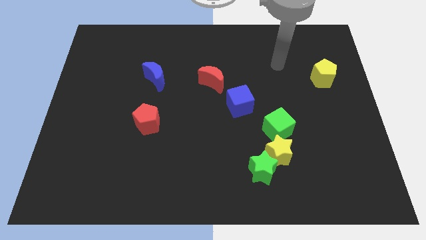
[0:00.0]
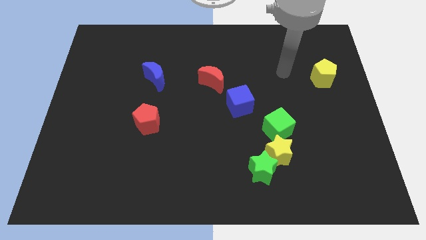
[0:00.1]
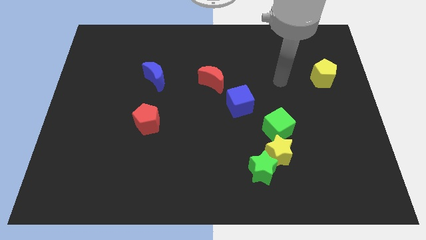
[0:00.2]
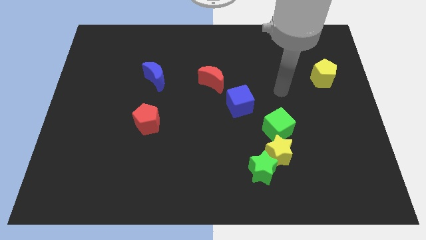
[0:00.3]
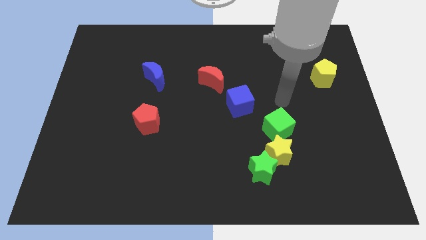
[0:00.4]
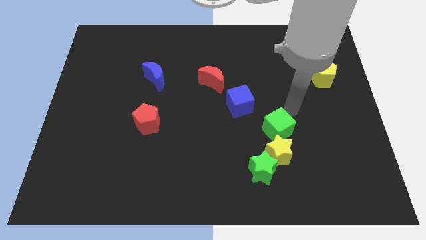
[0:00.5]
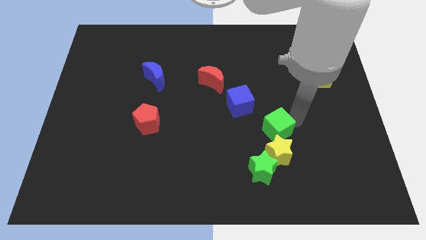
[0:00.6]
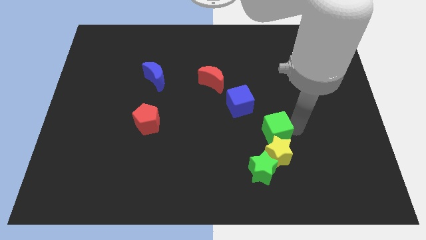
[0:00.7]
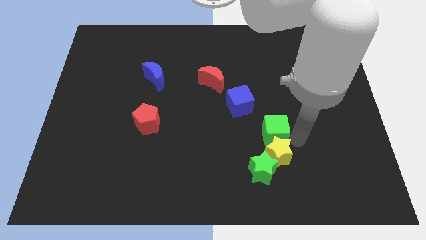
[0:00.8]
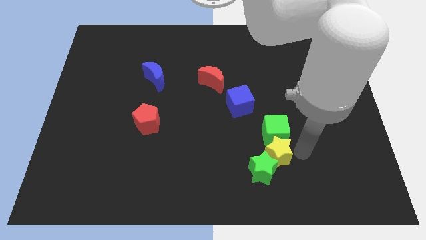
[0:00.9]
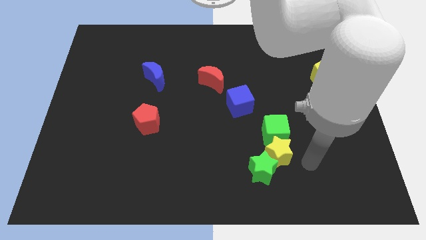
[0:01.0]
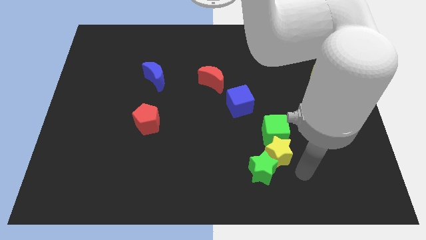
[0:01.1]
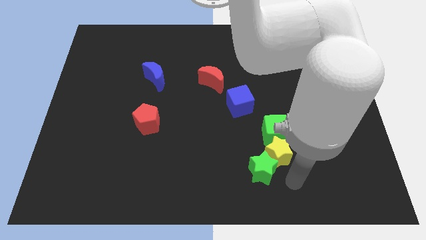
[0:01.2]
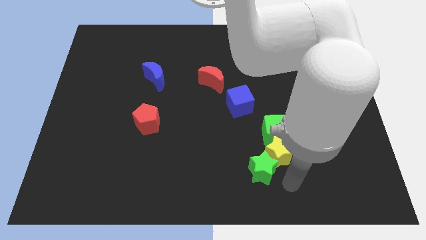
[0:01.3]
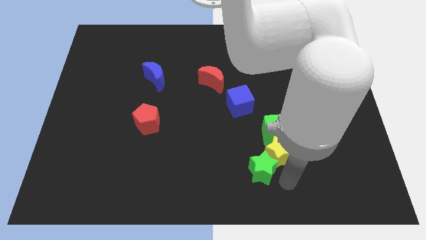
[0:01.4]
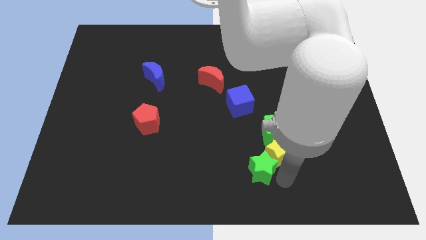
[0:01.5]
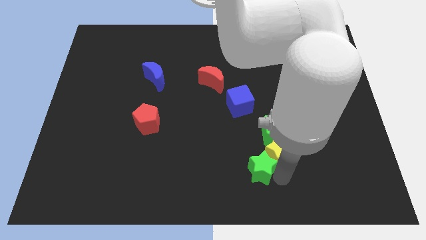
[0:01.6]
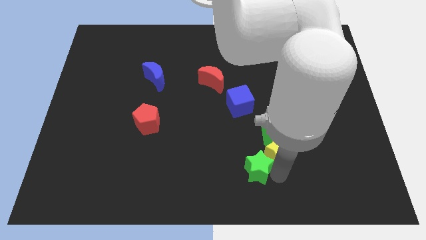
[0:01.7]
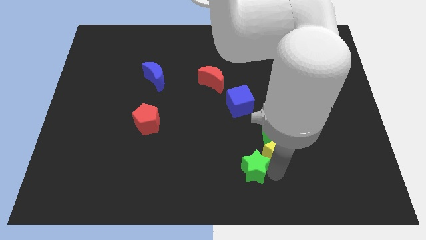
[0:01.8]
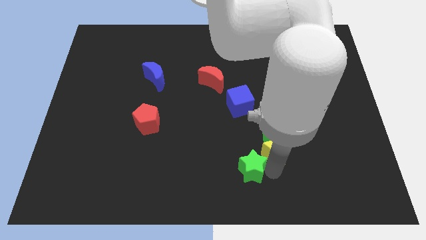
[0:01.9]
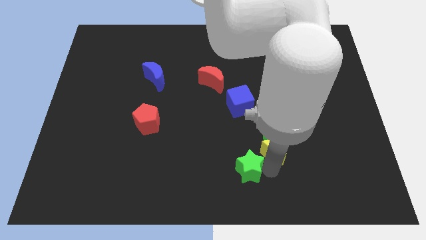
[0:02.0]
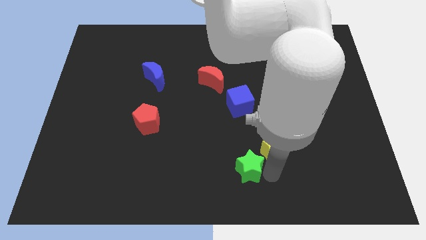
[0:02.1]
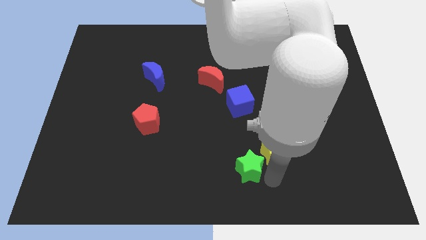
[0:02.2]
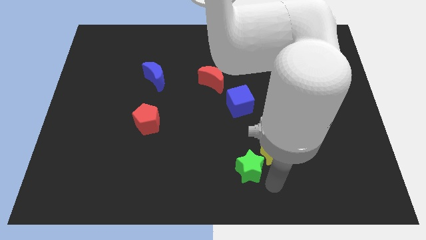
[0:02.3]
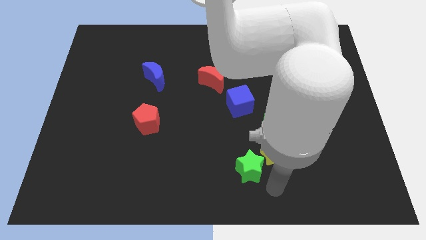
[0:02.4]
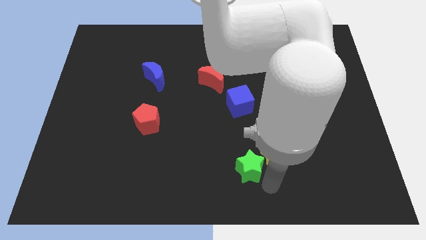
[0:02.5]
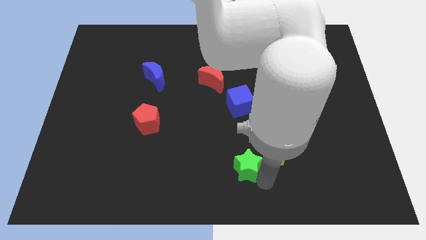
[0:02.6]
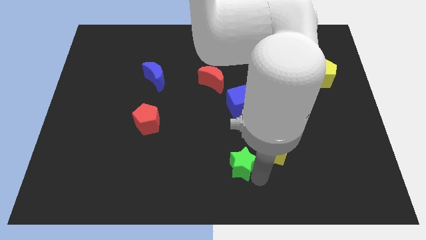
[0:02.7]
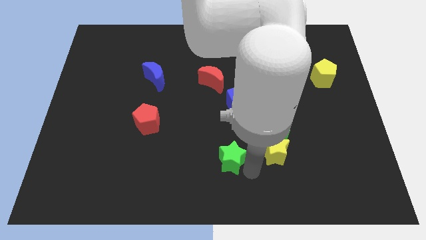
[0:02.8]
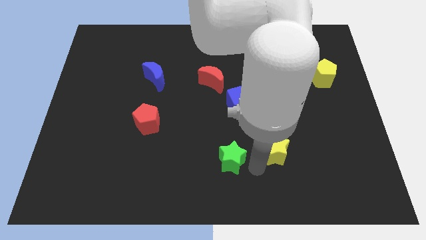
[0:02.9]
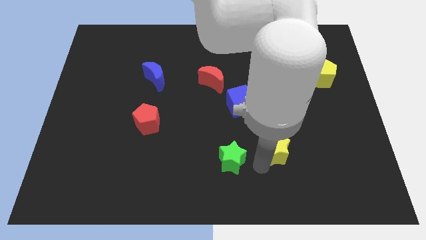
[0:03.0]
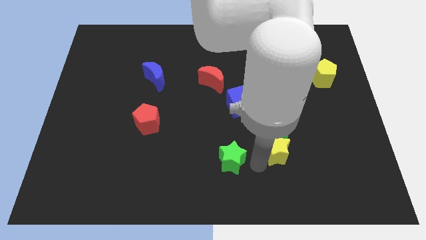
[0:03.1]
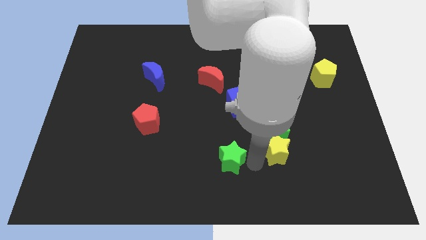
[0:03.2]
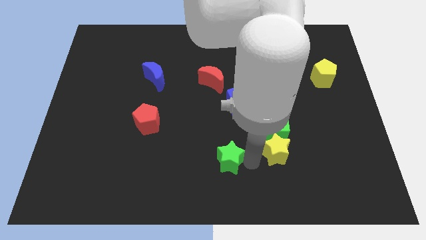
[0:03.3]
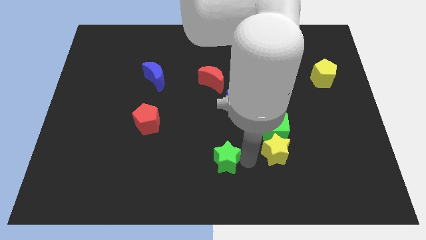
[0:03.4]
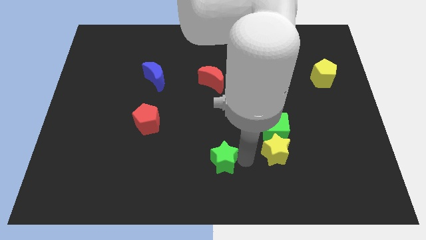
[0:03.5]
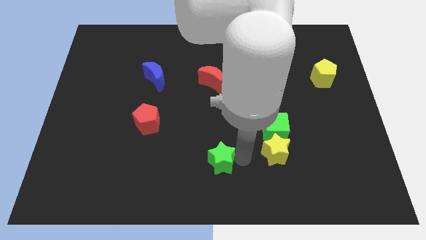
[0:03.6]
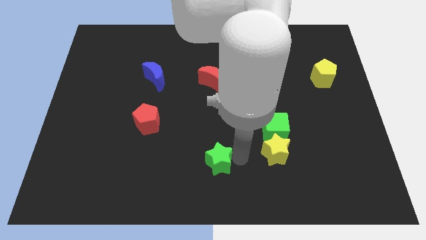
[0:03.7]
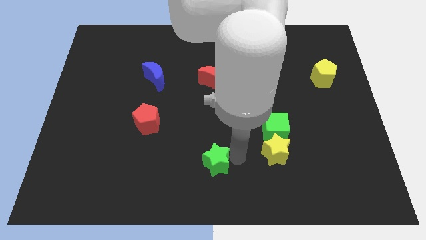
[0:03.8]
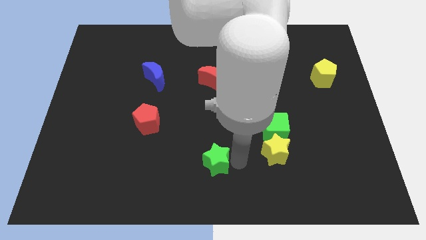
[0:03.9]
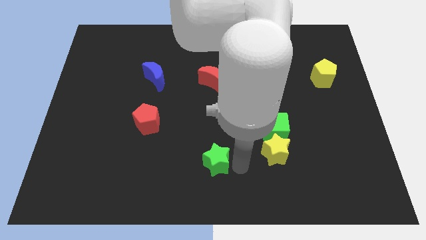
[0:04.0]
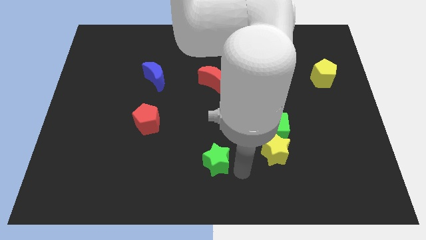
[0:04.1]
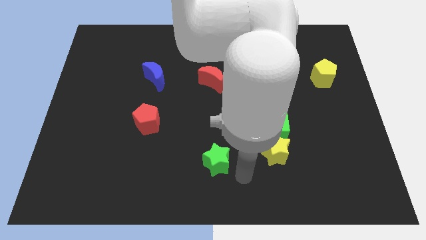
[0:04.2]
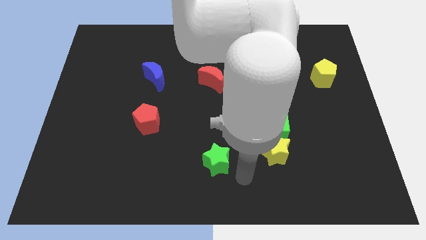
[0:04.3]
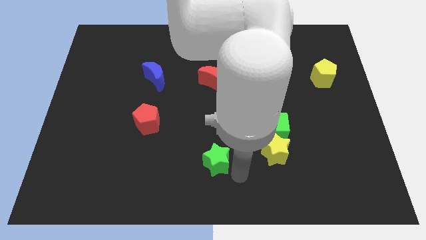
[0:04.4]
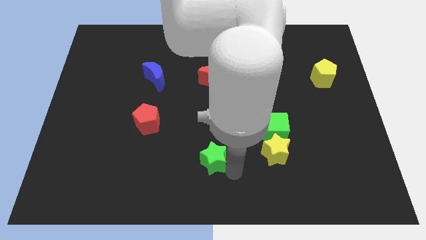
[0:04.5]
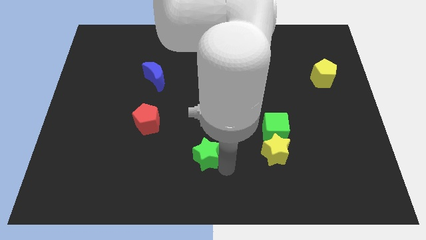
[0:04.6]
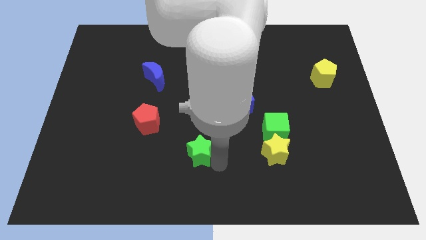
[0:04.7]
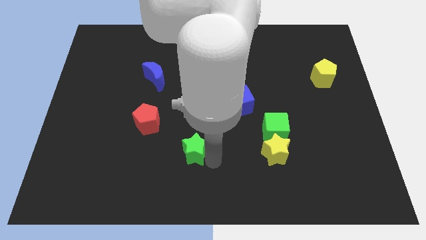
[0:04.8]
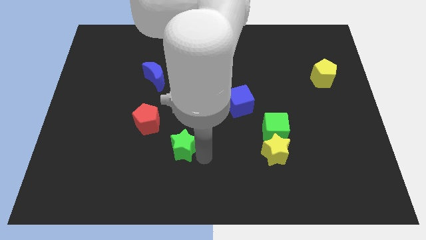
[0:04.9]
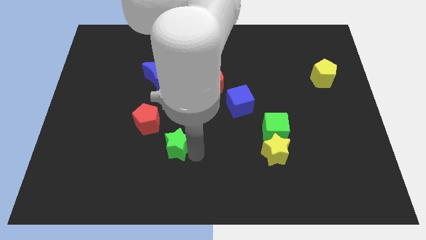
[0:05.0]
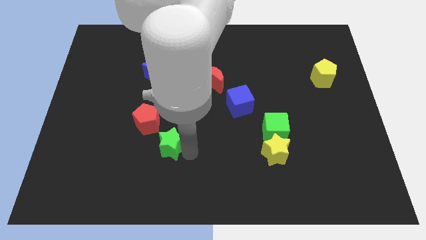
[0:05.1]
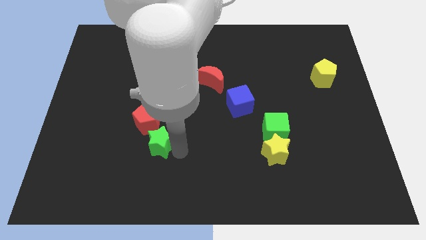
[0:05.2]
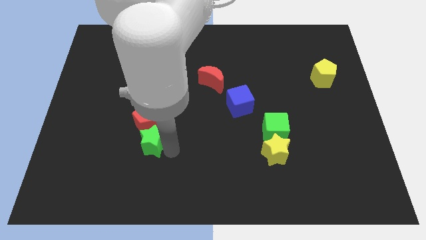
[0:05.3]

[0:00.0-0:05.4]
slide the green star next to the red pentagon

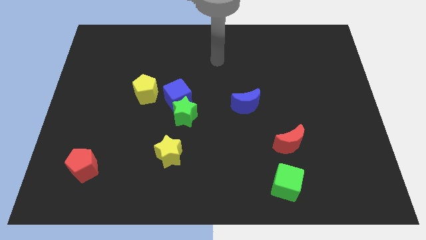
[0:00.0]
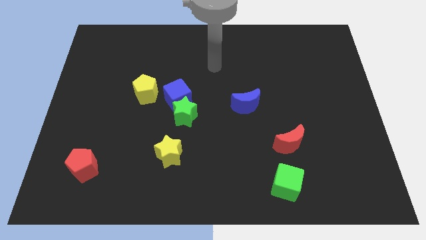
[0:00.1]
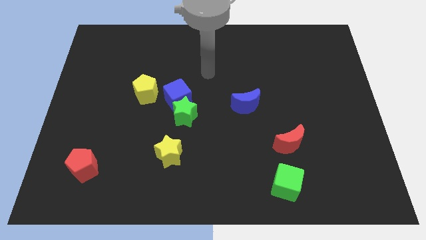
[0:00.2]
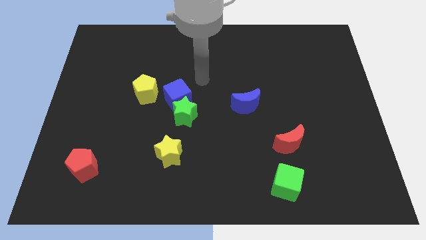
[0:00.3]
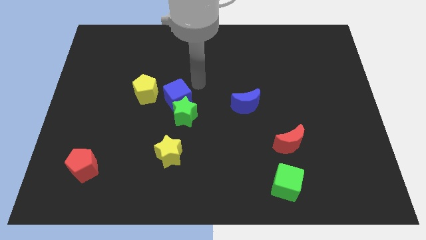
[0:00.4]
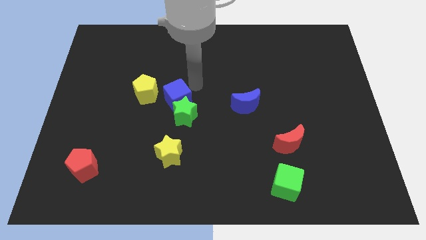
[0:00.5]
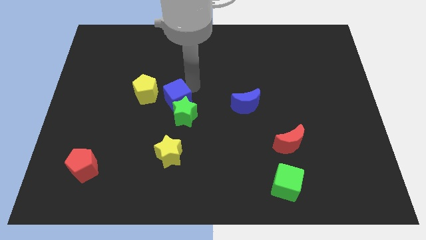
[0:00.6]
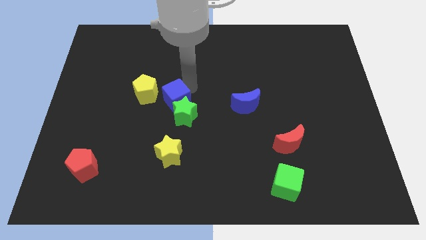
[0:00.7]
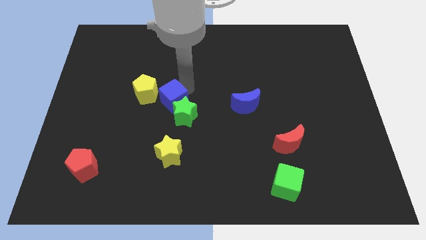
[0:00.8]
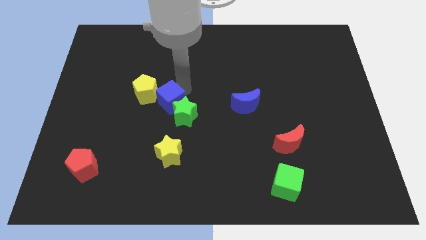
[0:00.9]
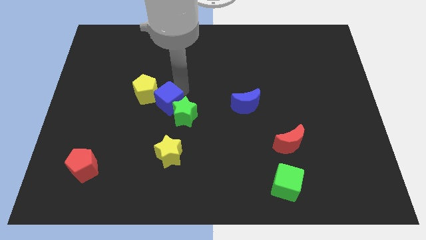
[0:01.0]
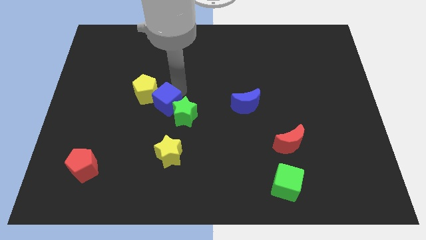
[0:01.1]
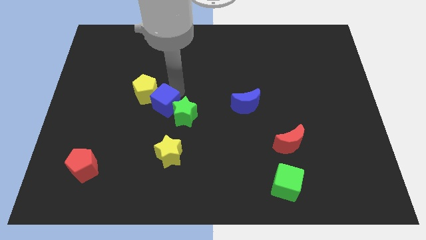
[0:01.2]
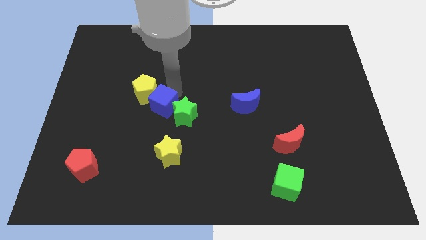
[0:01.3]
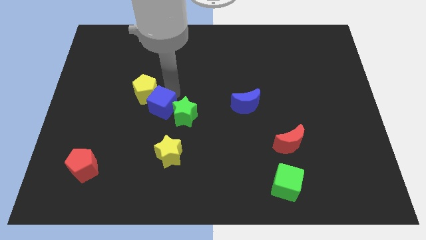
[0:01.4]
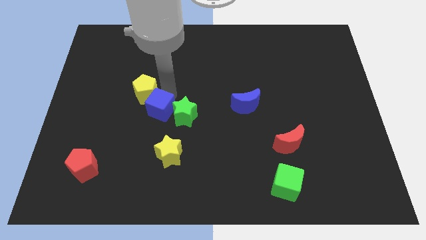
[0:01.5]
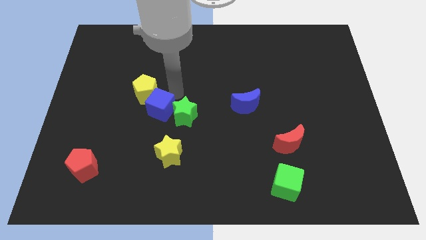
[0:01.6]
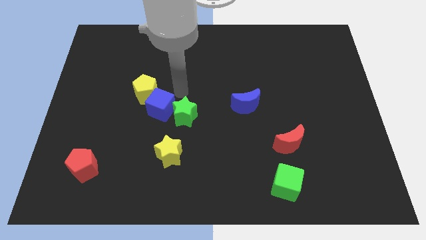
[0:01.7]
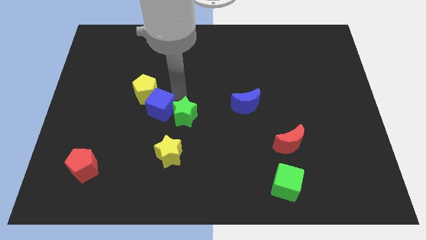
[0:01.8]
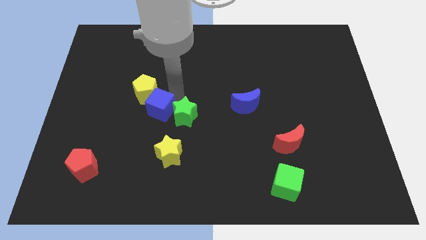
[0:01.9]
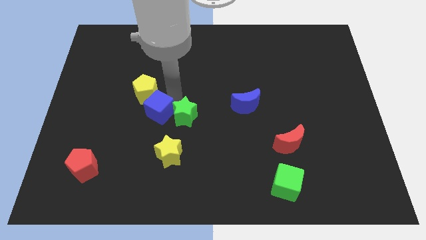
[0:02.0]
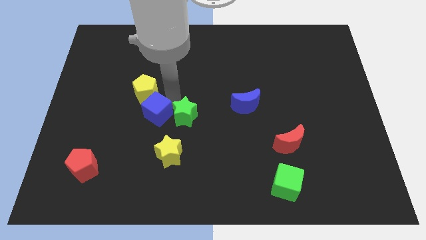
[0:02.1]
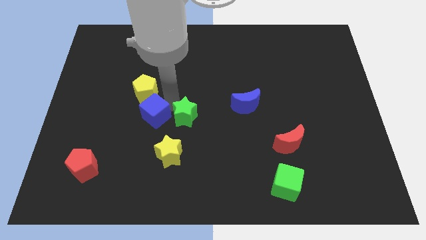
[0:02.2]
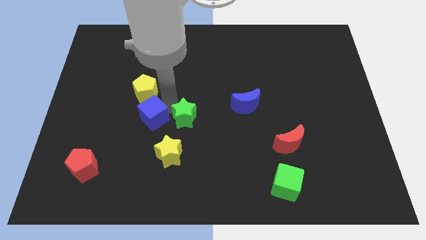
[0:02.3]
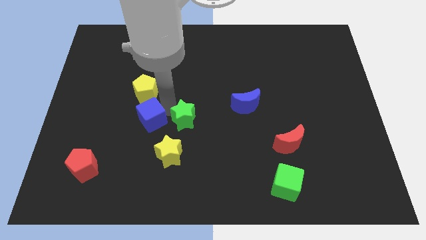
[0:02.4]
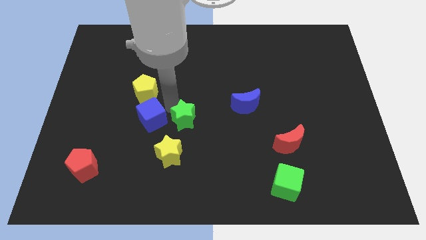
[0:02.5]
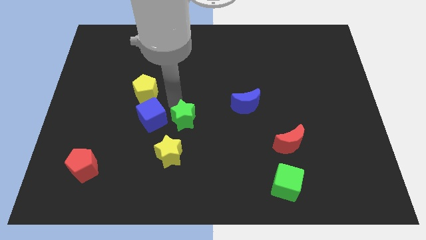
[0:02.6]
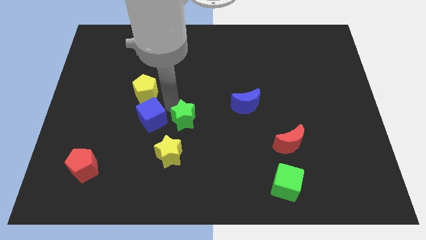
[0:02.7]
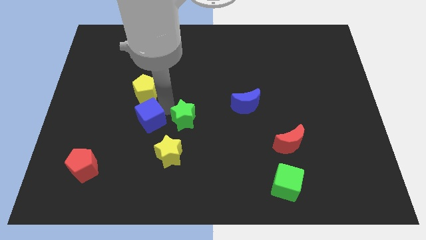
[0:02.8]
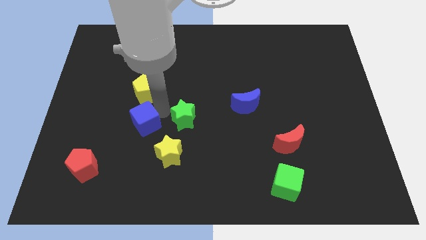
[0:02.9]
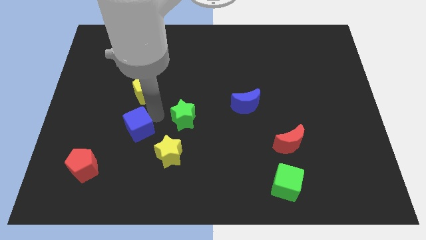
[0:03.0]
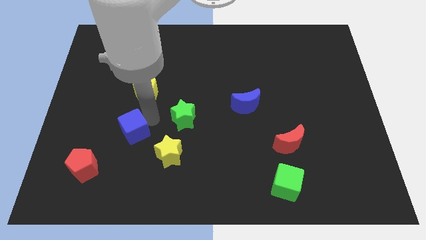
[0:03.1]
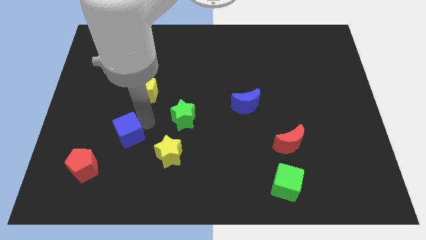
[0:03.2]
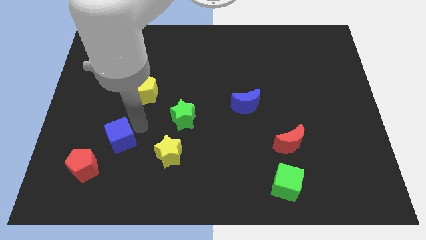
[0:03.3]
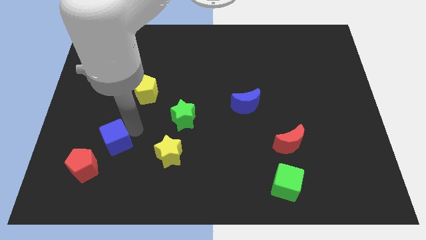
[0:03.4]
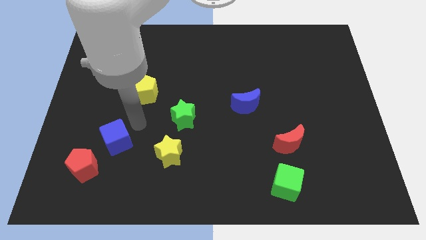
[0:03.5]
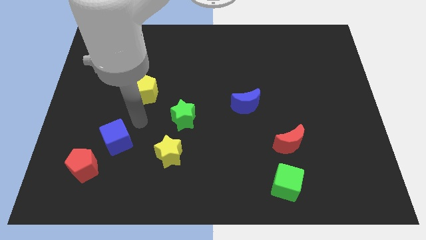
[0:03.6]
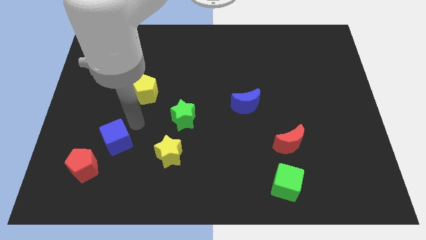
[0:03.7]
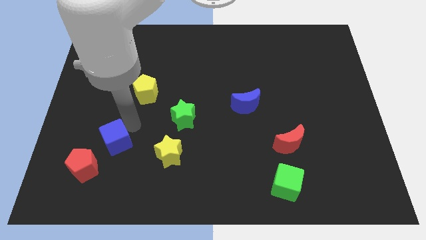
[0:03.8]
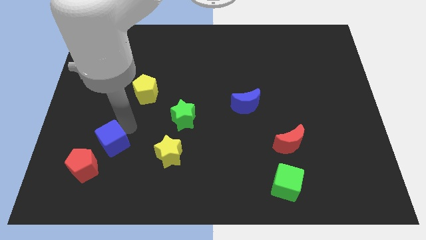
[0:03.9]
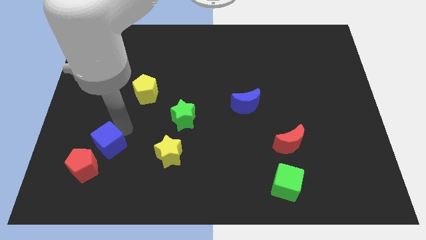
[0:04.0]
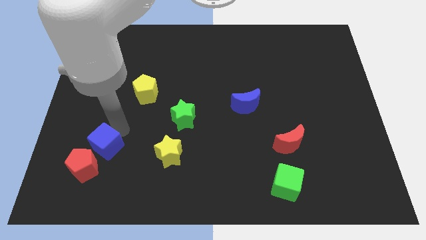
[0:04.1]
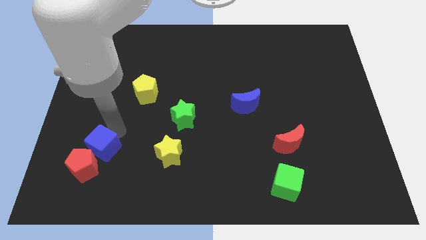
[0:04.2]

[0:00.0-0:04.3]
move the blue cube towards the red pentagon
